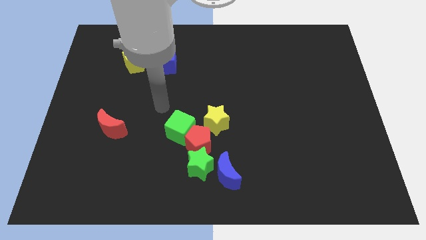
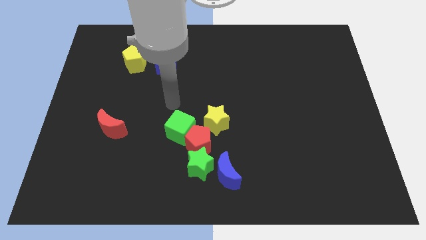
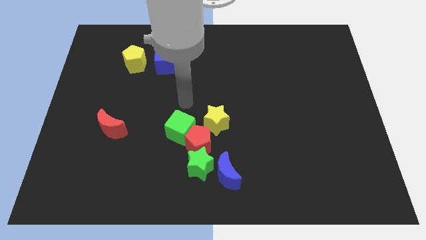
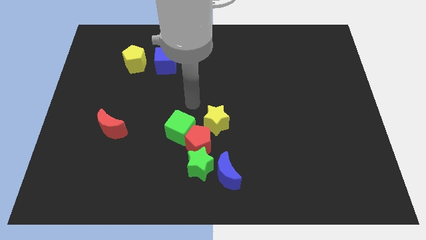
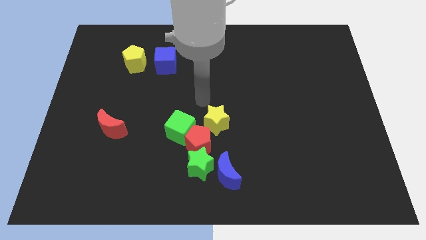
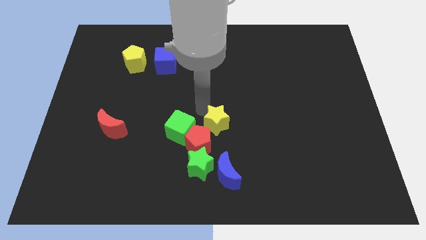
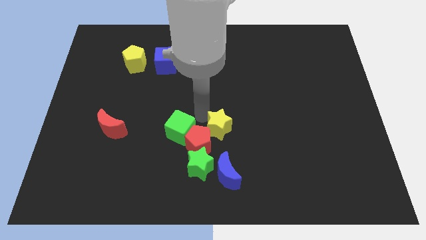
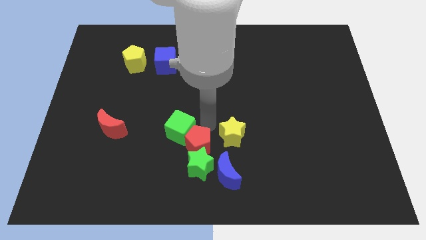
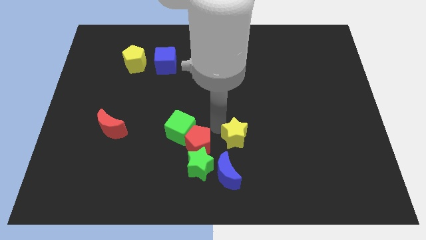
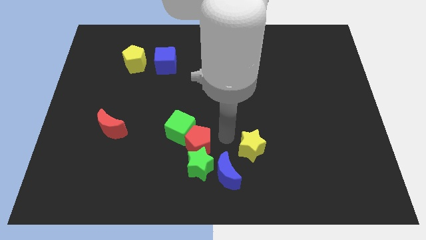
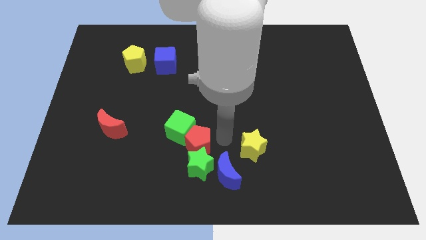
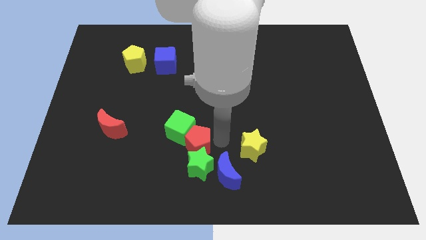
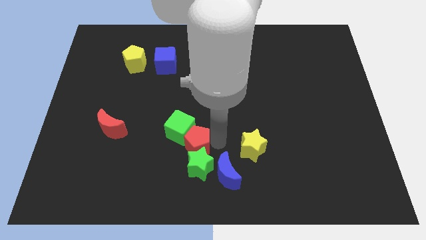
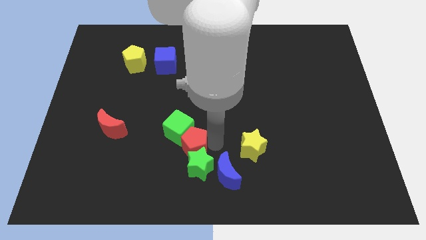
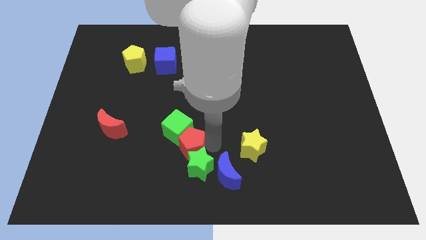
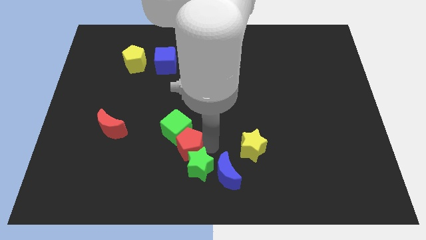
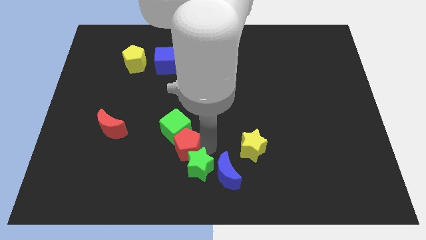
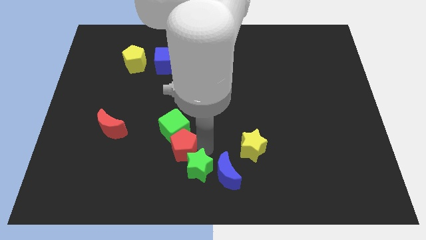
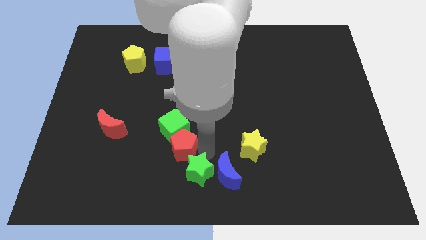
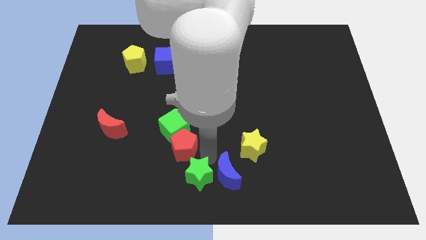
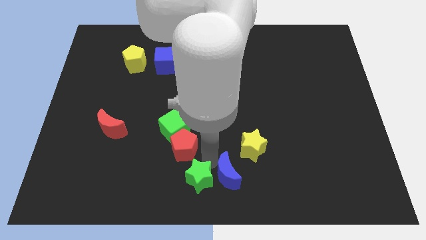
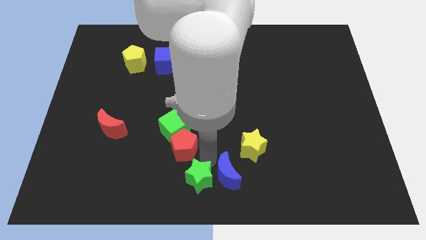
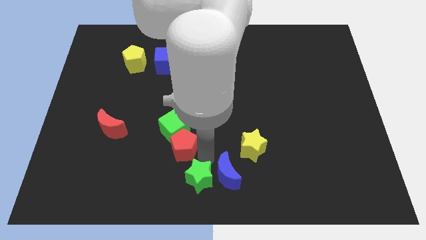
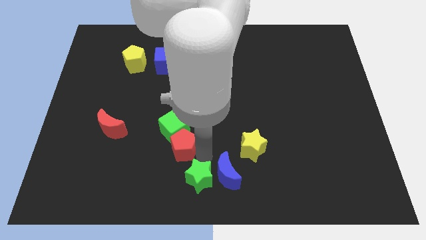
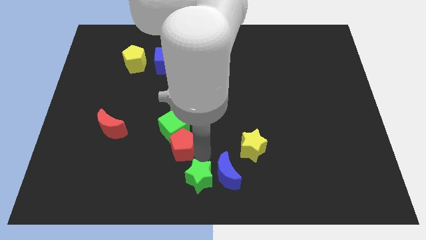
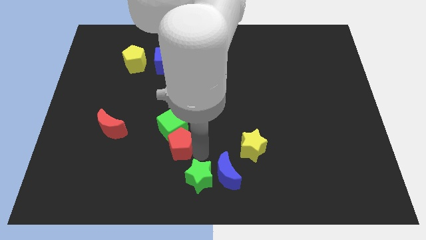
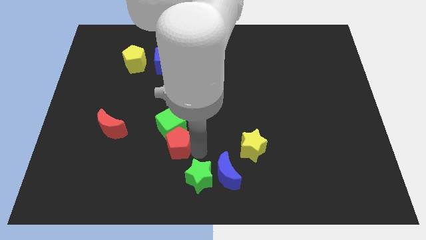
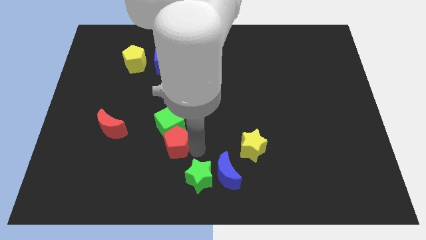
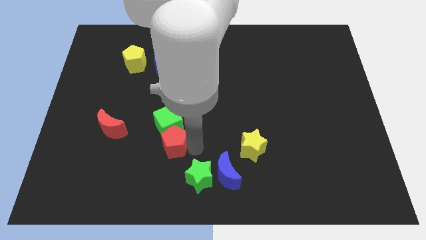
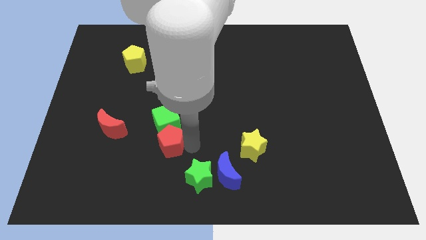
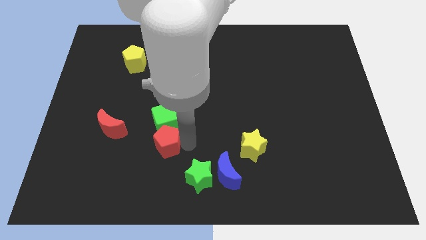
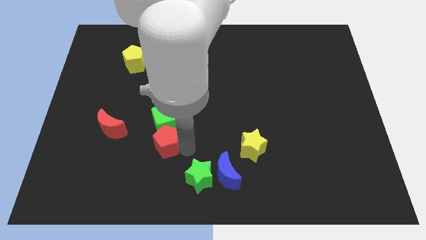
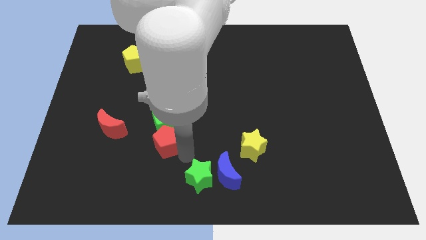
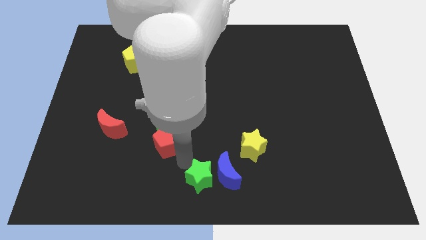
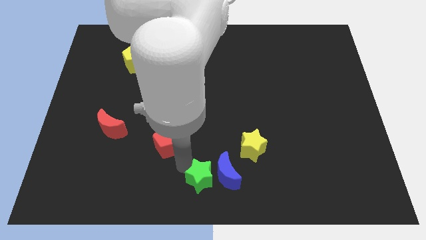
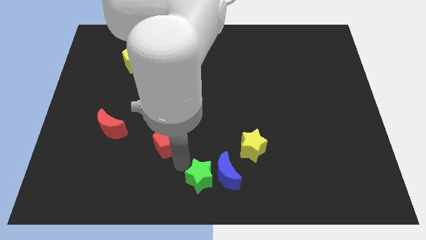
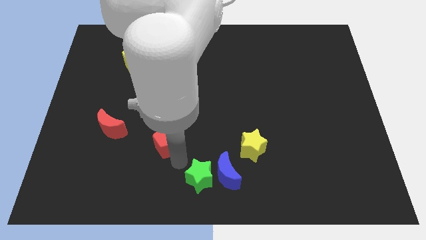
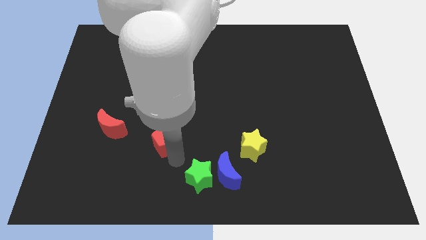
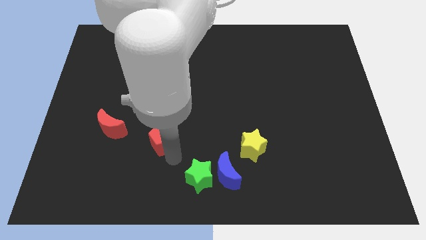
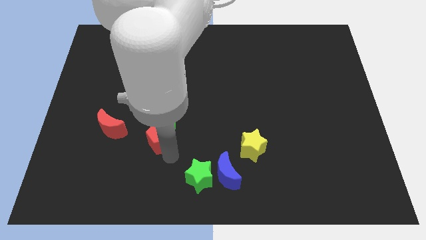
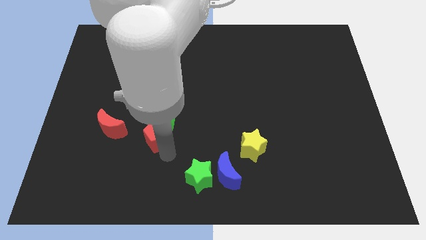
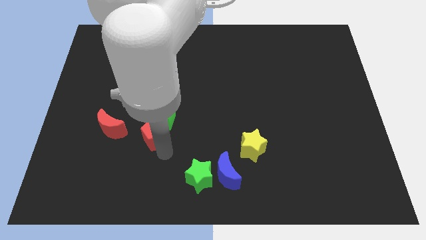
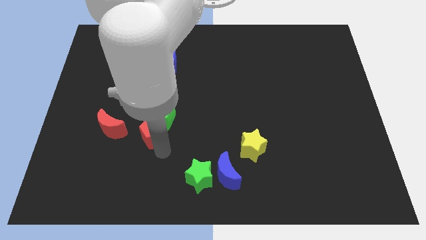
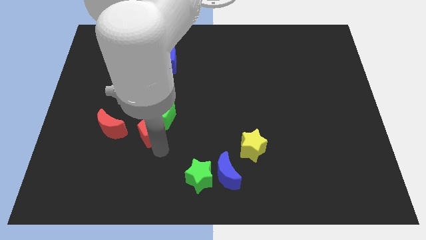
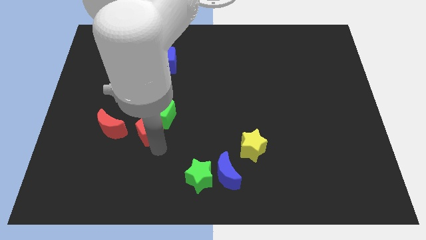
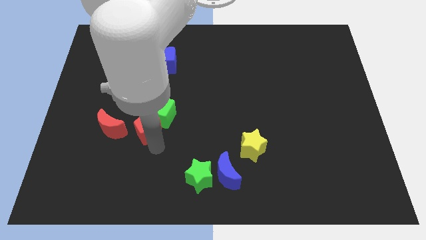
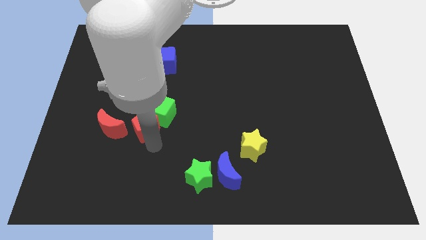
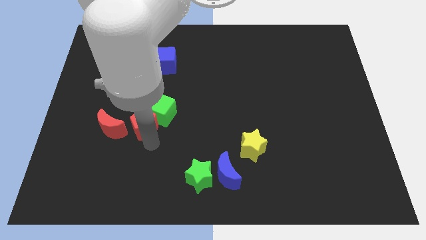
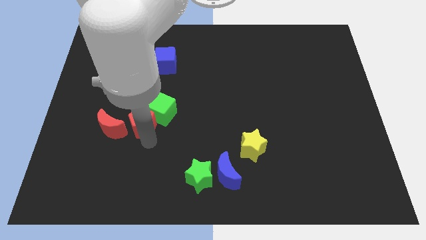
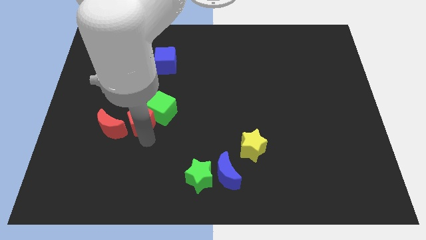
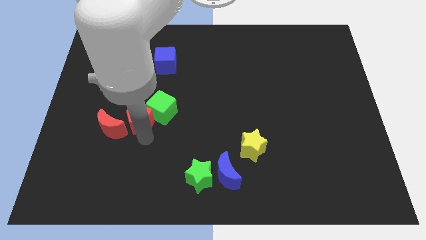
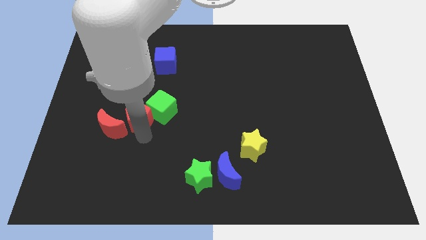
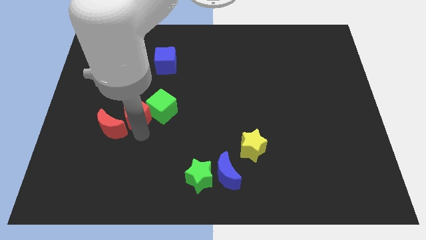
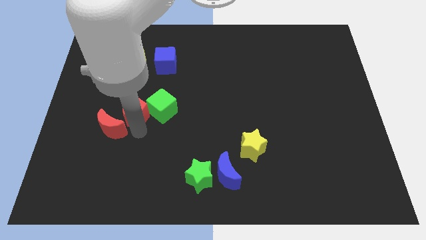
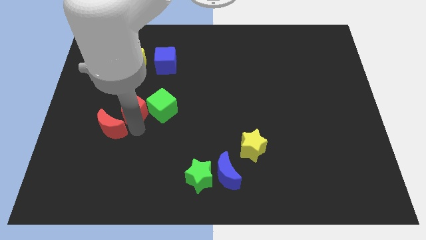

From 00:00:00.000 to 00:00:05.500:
move the red pentagon to the bottom side of the yellow pentagon

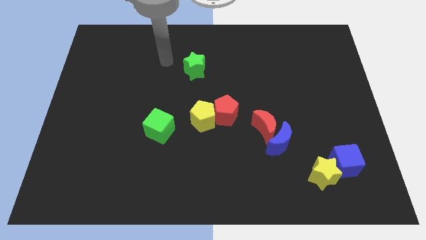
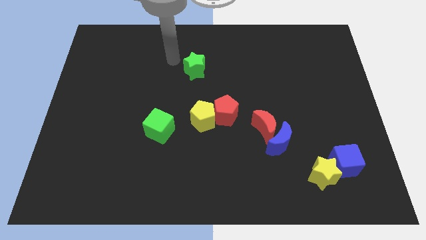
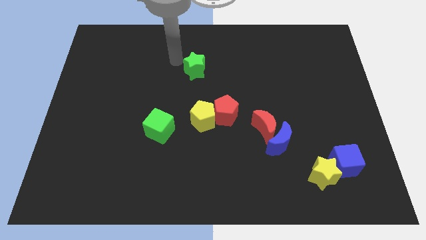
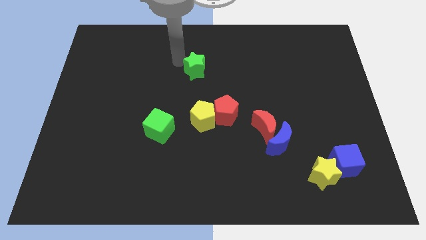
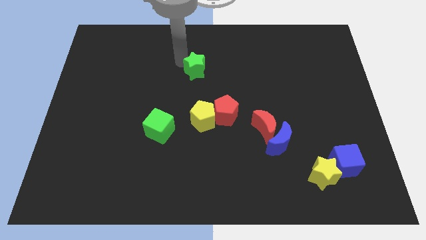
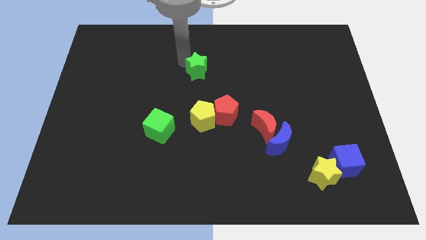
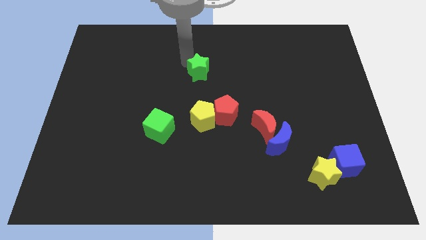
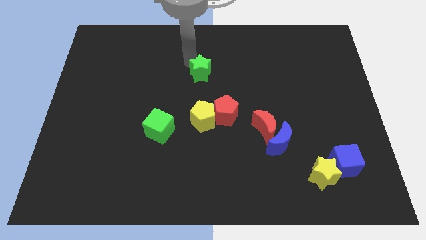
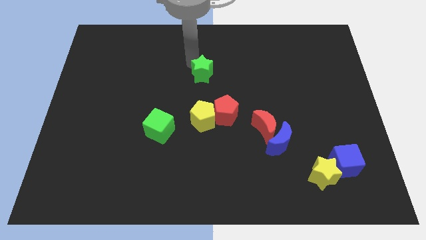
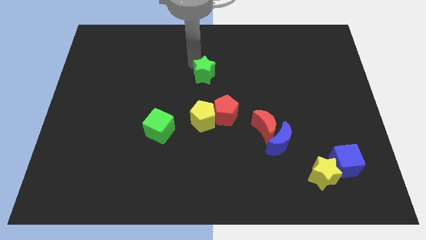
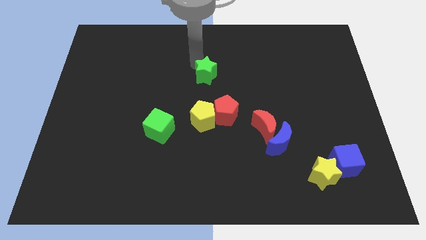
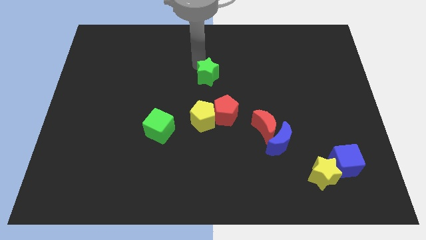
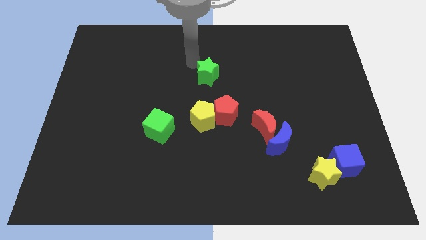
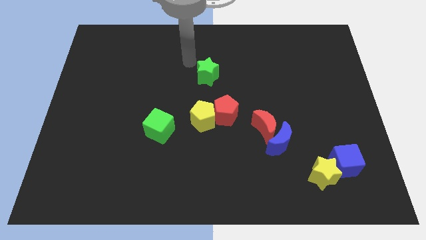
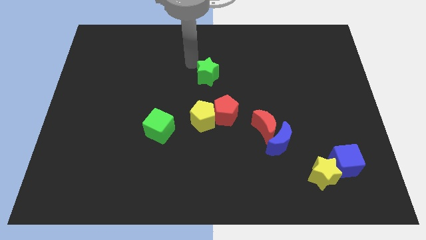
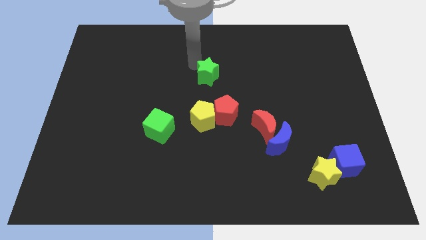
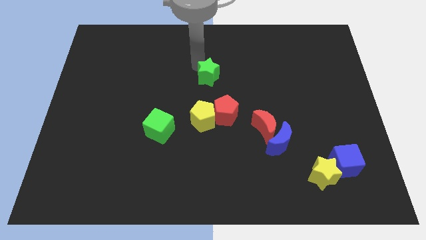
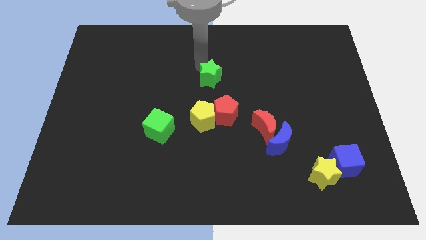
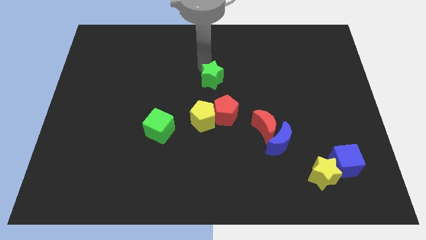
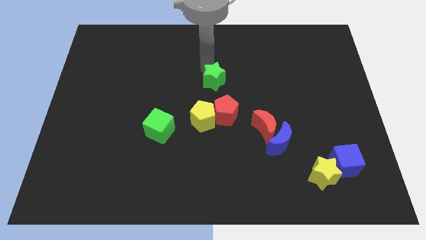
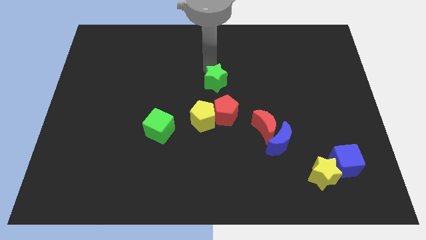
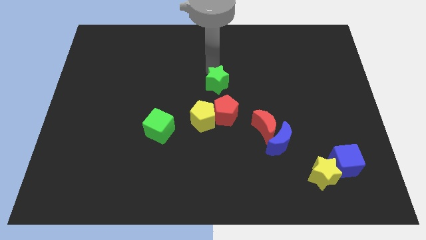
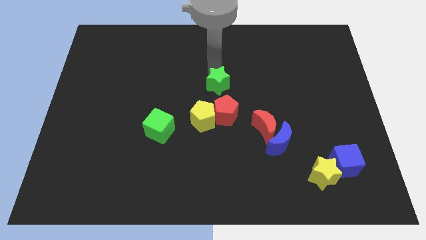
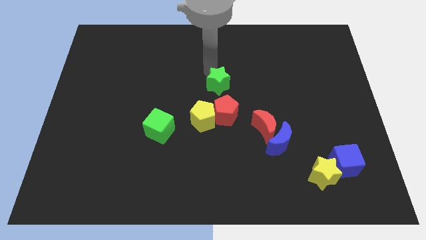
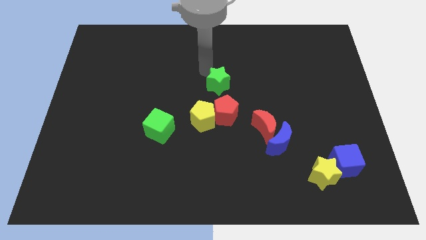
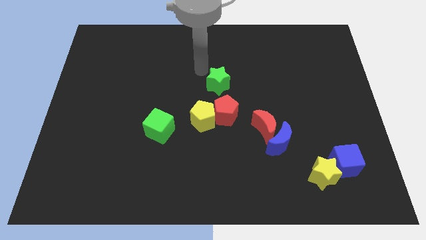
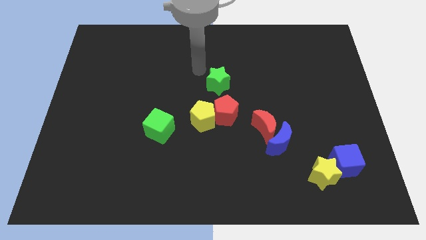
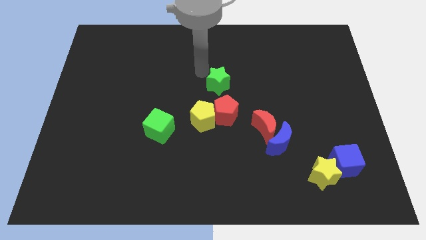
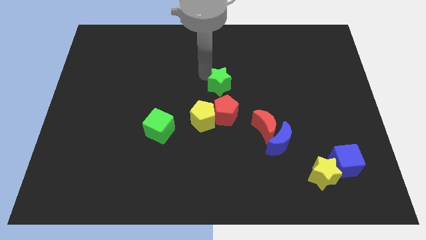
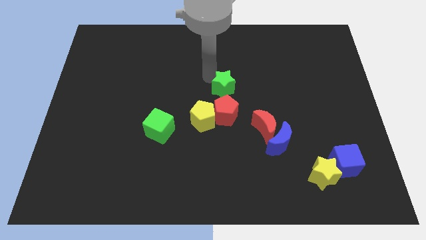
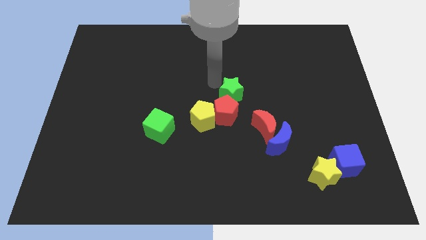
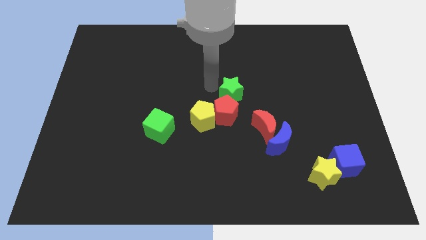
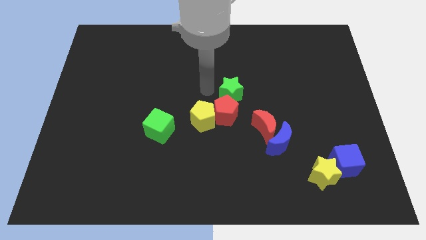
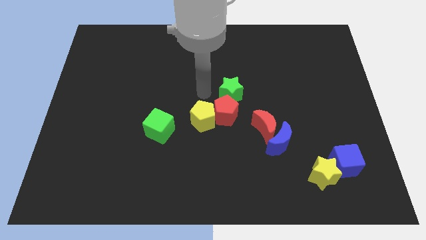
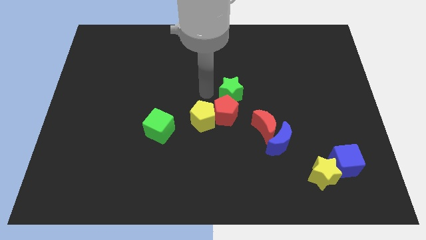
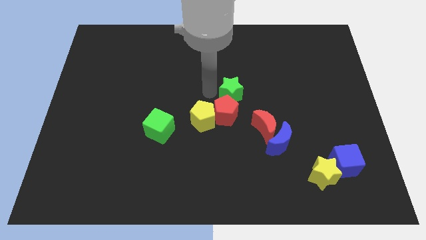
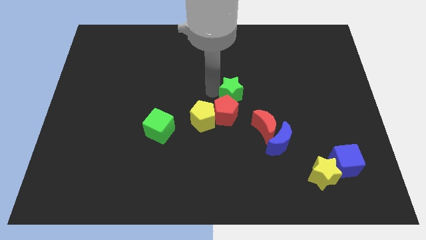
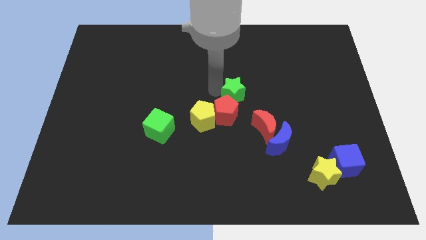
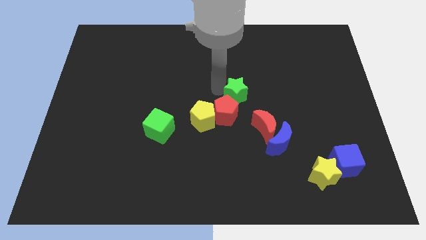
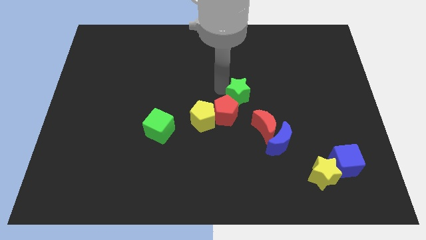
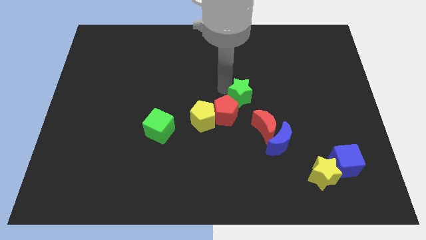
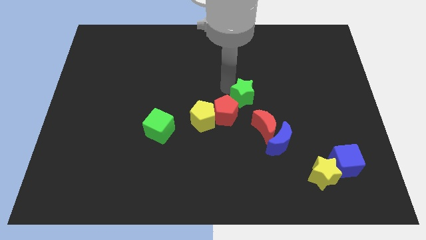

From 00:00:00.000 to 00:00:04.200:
slide the green star above the red moon
